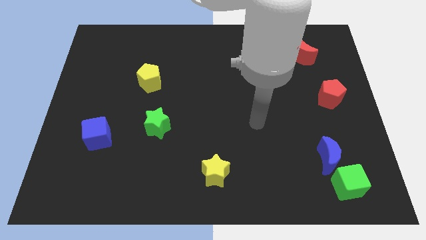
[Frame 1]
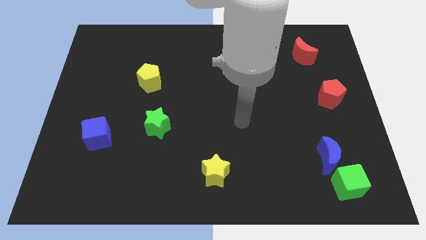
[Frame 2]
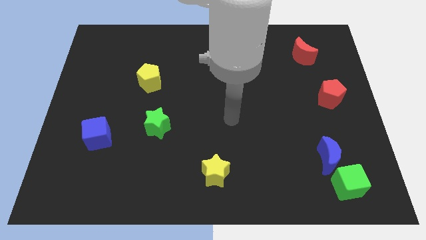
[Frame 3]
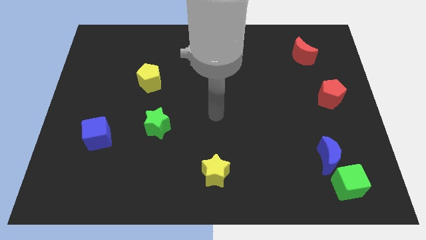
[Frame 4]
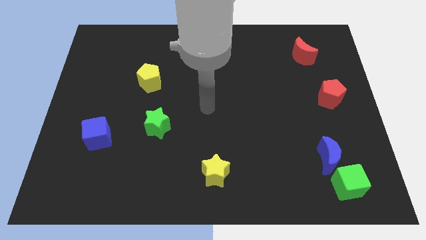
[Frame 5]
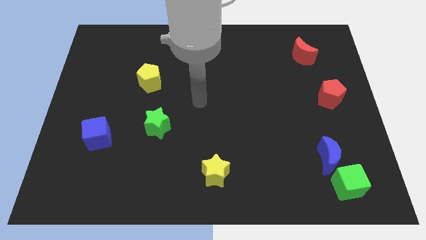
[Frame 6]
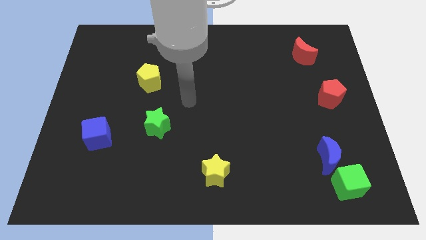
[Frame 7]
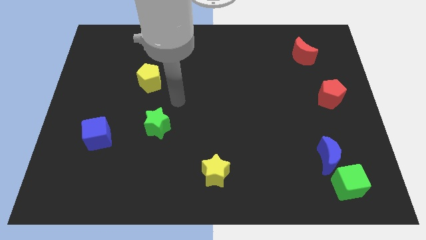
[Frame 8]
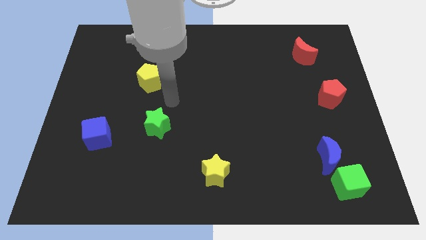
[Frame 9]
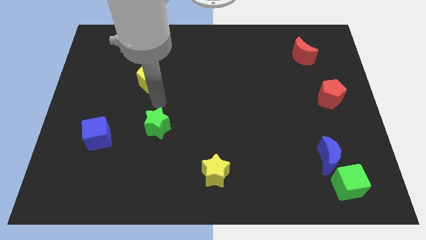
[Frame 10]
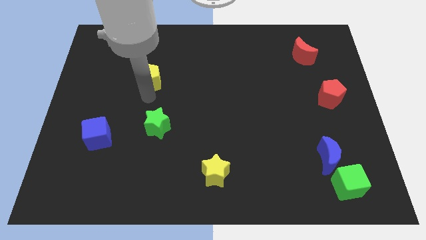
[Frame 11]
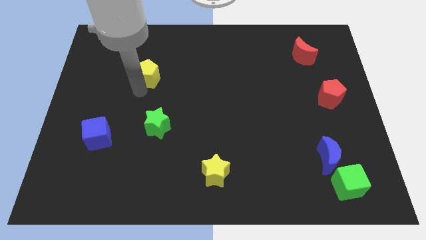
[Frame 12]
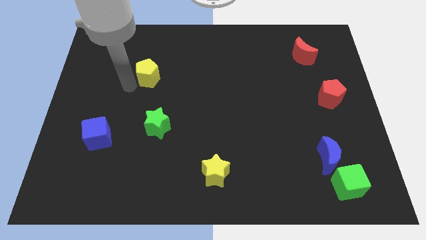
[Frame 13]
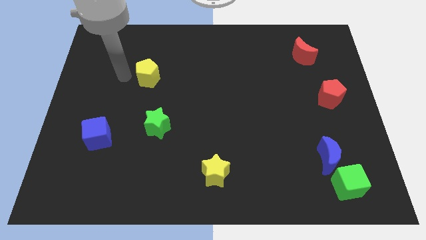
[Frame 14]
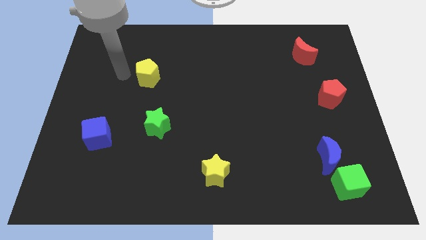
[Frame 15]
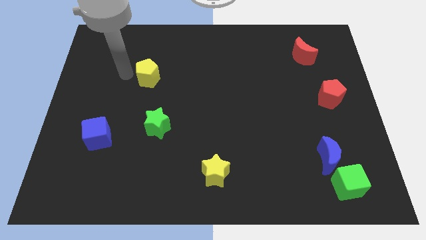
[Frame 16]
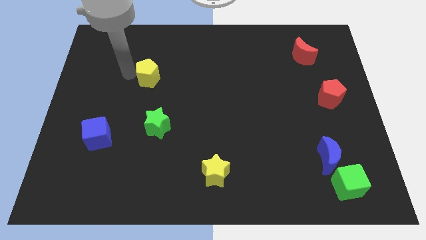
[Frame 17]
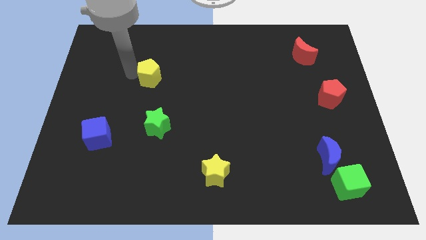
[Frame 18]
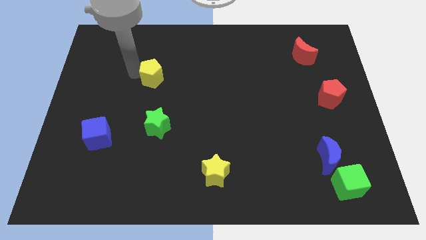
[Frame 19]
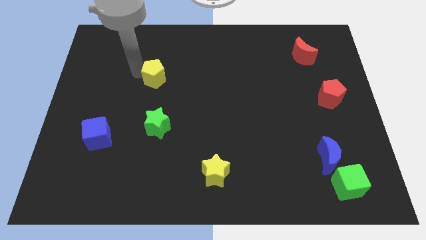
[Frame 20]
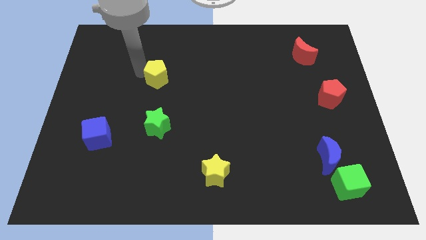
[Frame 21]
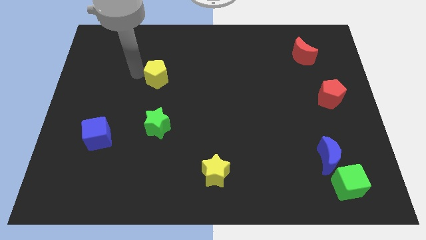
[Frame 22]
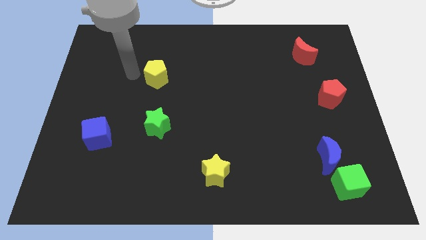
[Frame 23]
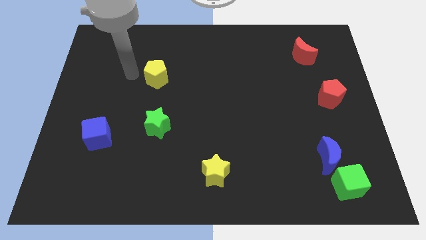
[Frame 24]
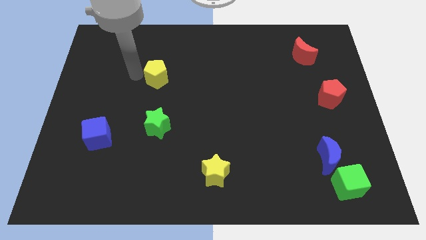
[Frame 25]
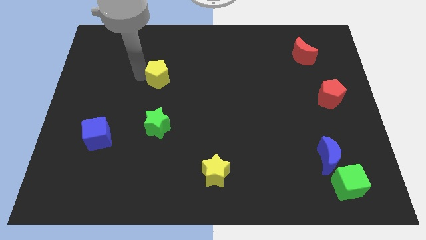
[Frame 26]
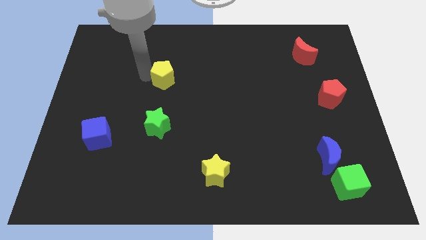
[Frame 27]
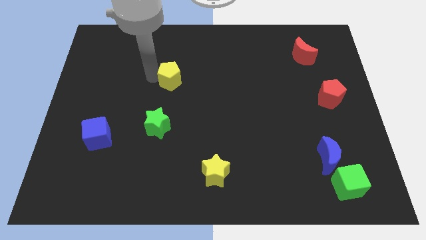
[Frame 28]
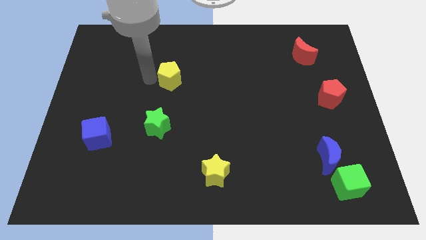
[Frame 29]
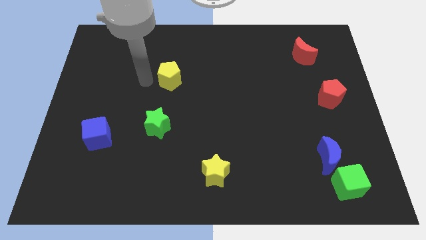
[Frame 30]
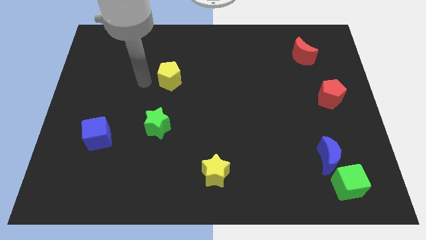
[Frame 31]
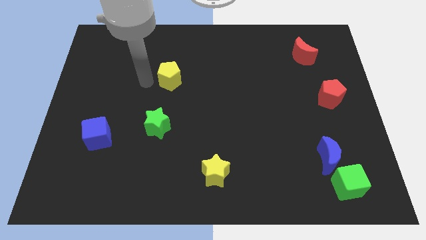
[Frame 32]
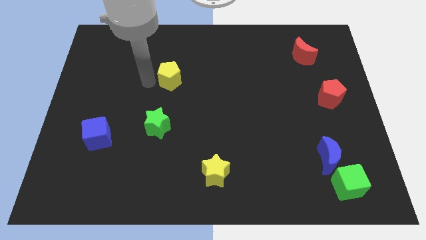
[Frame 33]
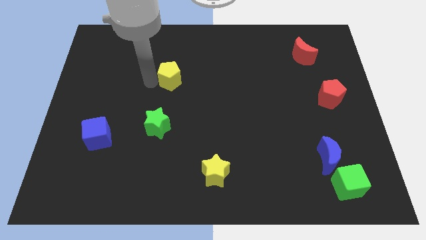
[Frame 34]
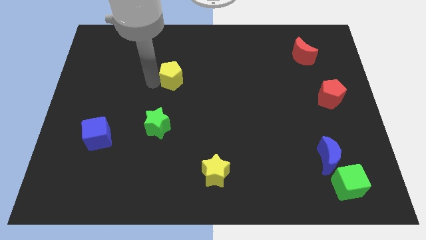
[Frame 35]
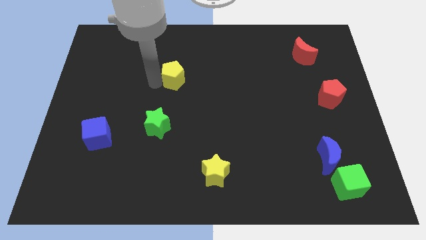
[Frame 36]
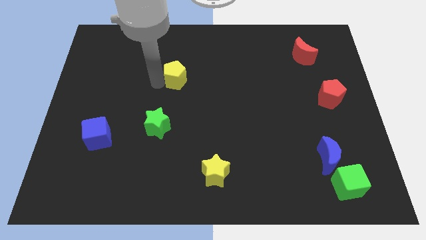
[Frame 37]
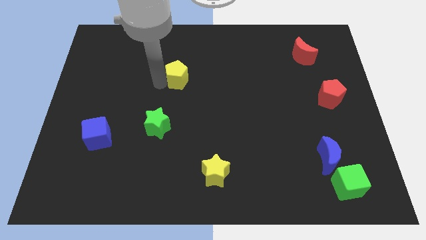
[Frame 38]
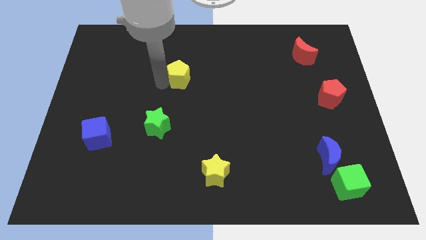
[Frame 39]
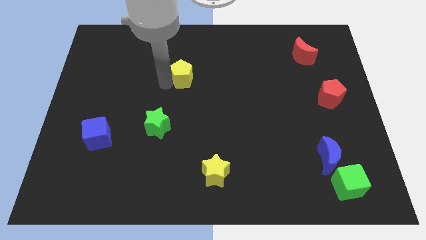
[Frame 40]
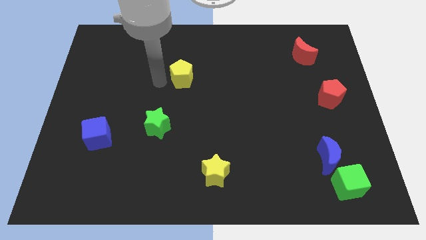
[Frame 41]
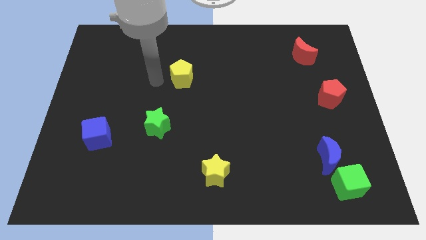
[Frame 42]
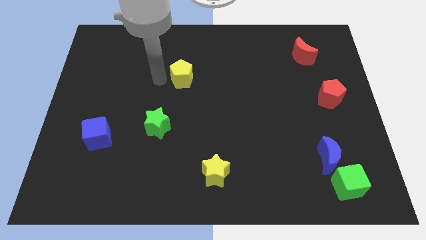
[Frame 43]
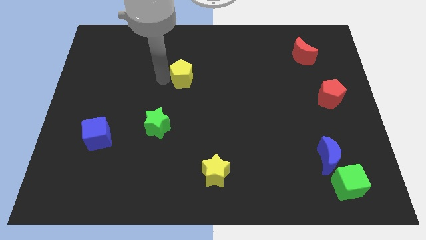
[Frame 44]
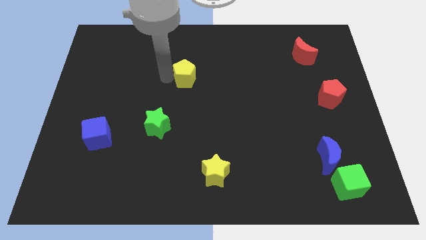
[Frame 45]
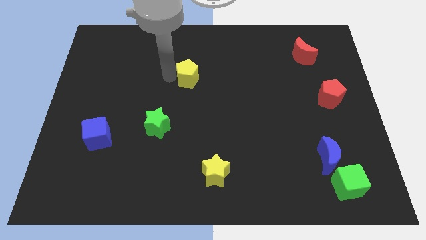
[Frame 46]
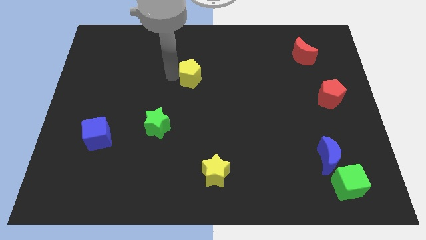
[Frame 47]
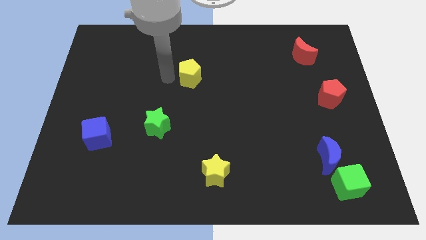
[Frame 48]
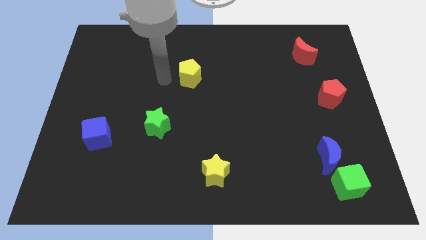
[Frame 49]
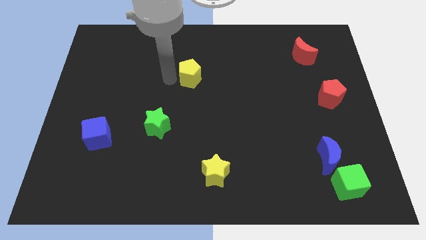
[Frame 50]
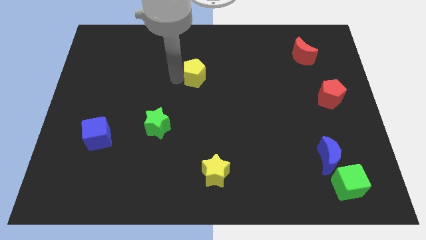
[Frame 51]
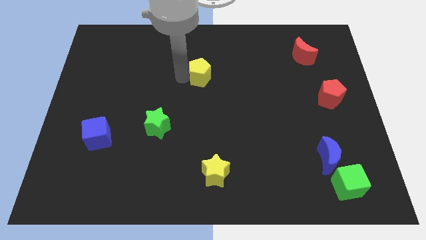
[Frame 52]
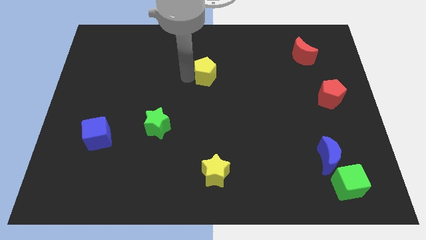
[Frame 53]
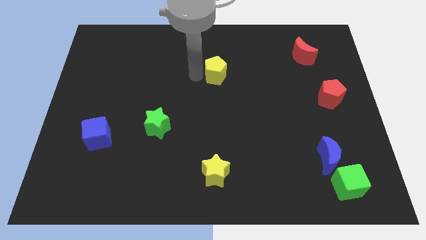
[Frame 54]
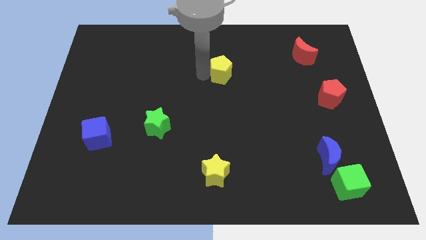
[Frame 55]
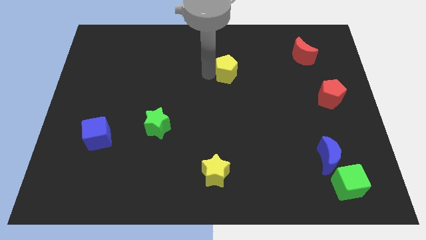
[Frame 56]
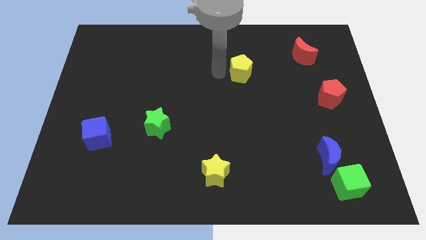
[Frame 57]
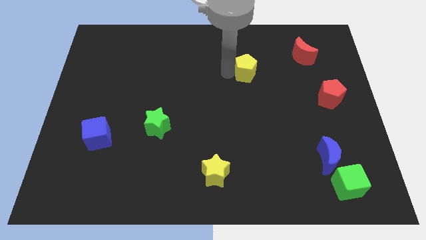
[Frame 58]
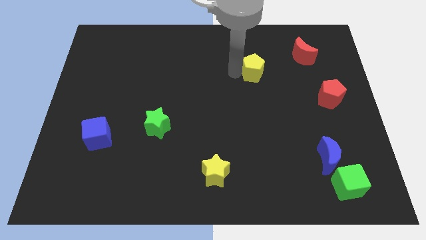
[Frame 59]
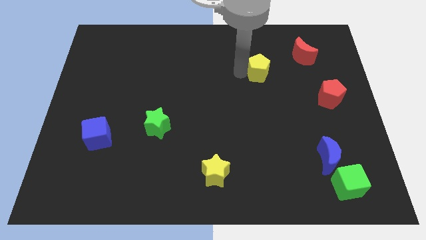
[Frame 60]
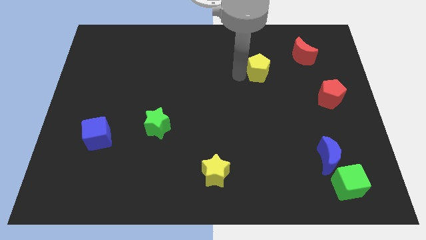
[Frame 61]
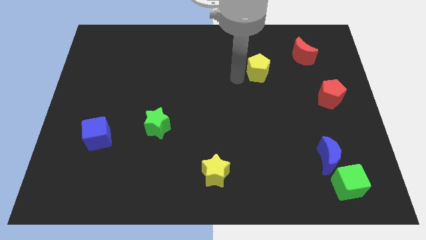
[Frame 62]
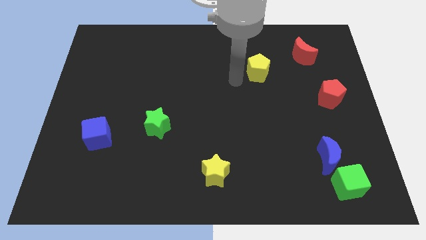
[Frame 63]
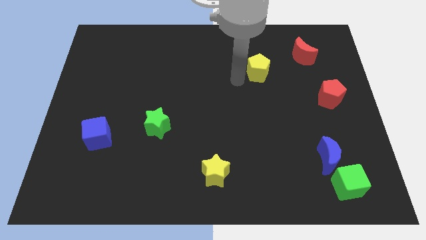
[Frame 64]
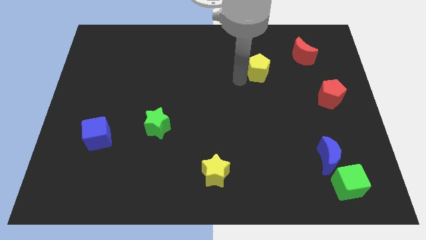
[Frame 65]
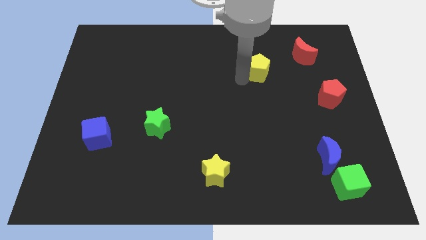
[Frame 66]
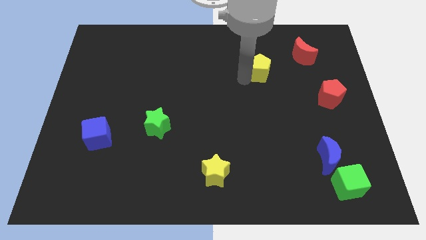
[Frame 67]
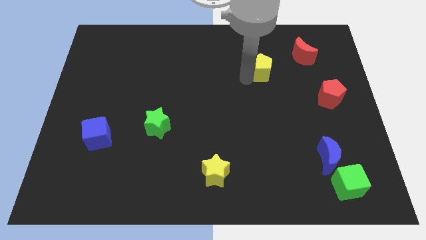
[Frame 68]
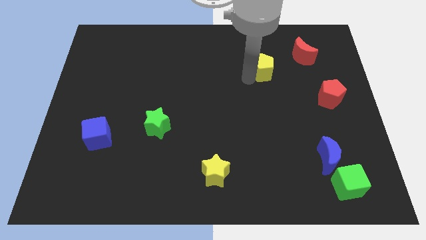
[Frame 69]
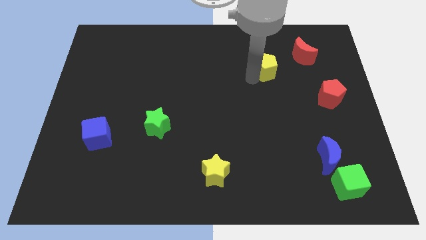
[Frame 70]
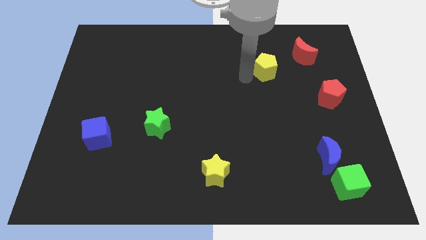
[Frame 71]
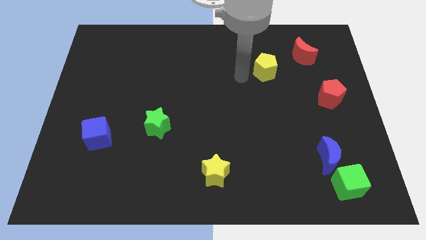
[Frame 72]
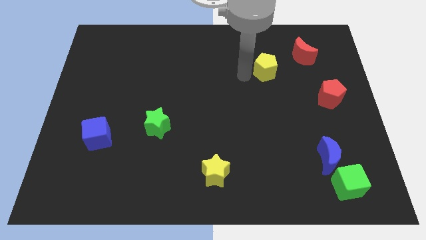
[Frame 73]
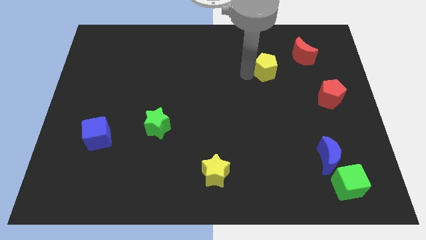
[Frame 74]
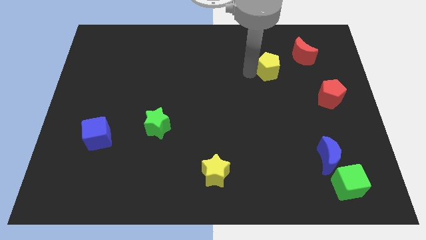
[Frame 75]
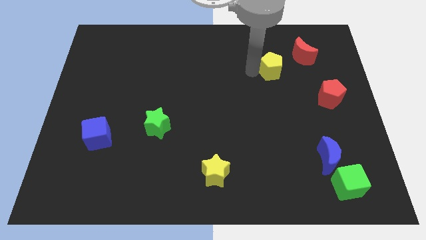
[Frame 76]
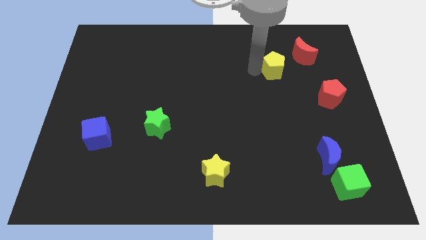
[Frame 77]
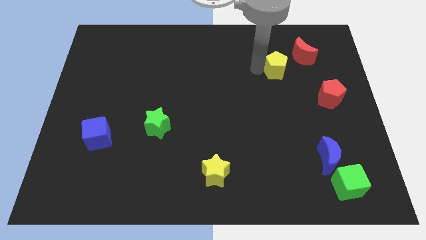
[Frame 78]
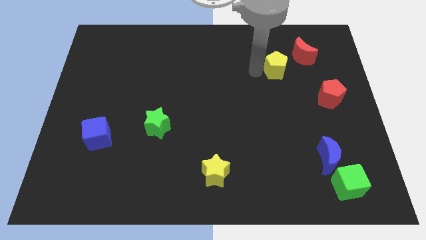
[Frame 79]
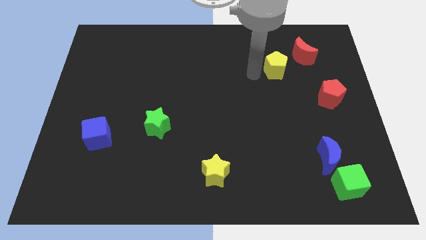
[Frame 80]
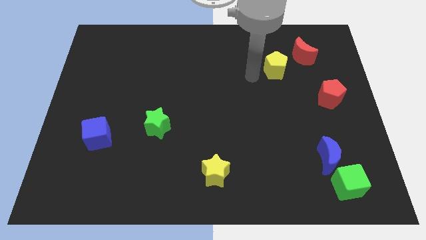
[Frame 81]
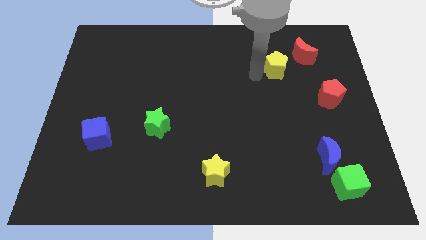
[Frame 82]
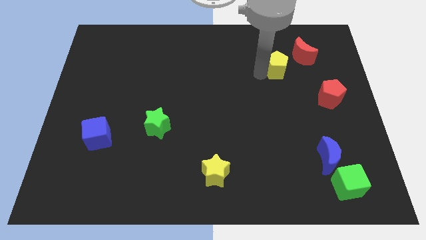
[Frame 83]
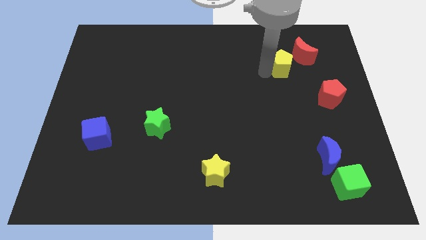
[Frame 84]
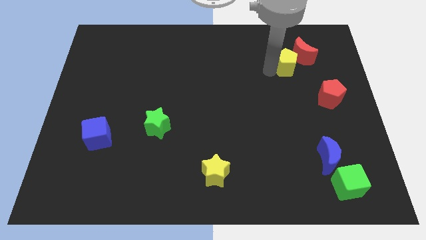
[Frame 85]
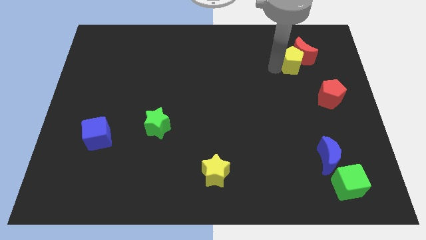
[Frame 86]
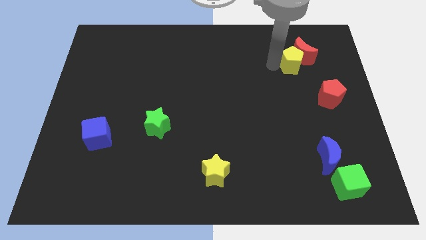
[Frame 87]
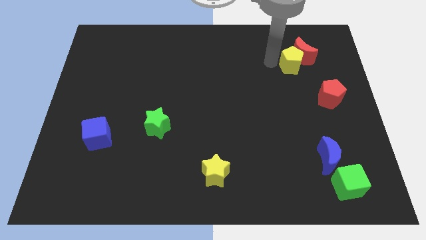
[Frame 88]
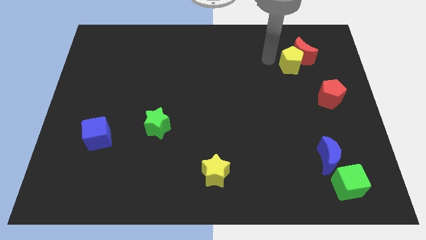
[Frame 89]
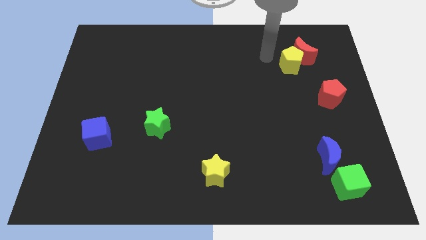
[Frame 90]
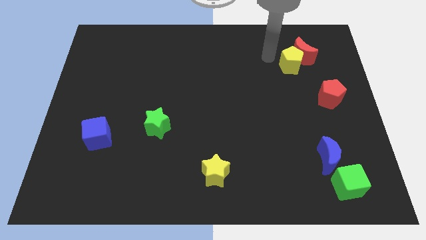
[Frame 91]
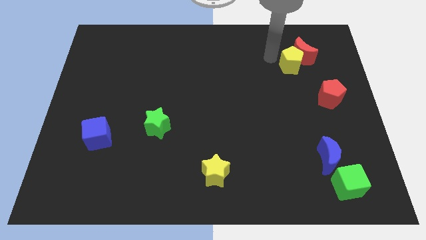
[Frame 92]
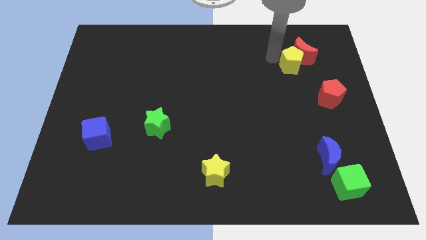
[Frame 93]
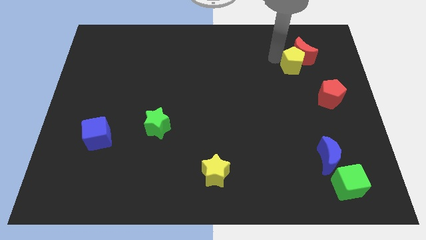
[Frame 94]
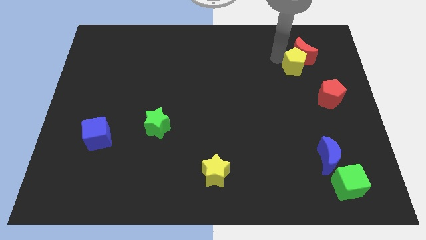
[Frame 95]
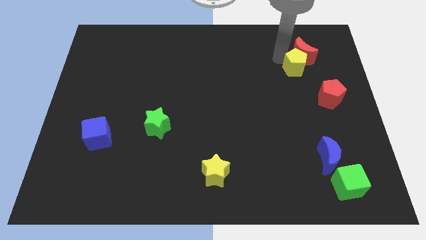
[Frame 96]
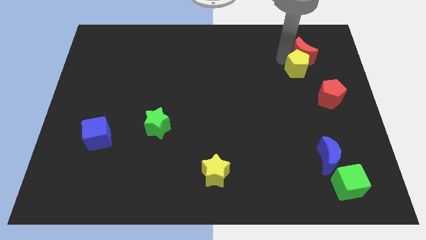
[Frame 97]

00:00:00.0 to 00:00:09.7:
slide the yellow pentagon diagonally down and to the right of the red moon
